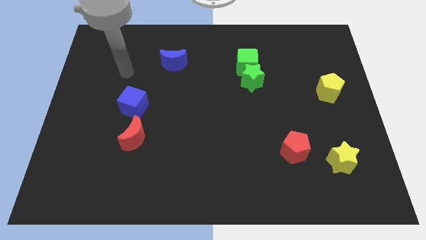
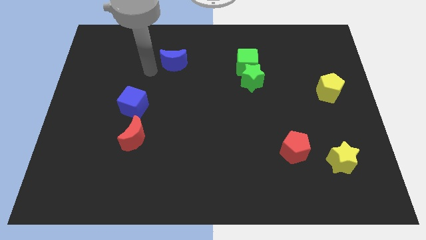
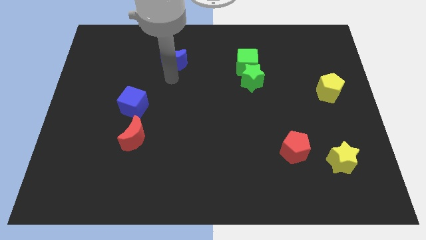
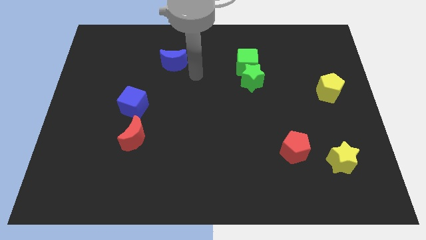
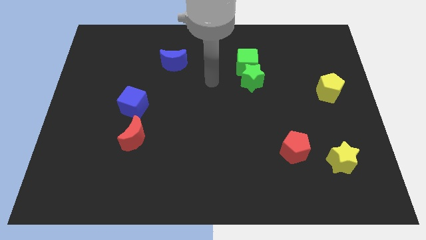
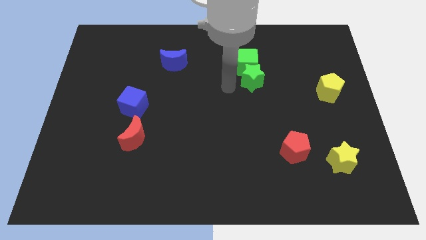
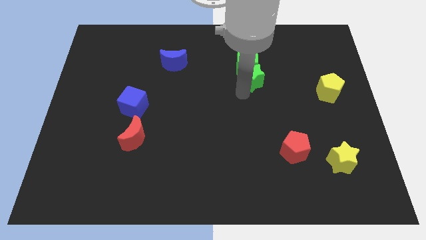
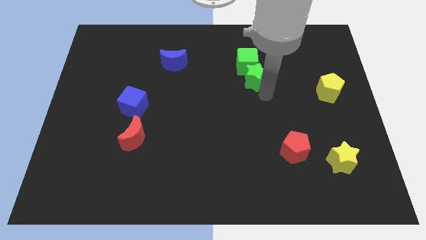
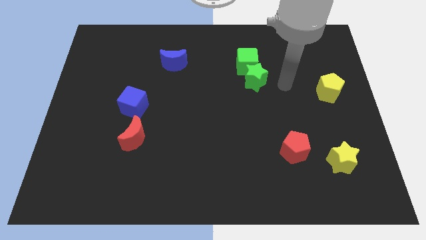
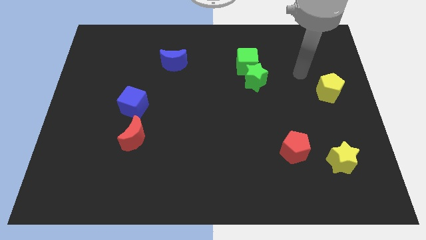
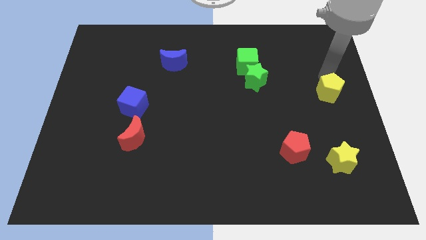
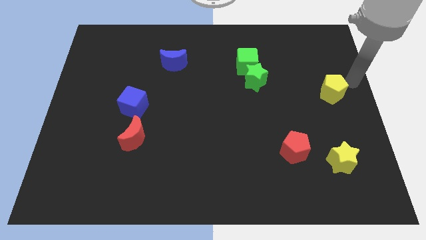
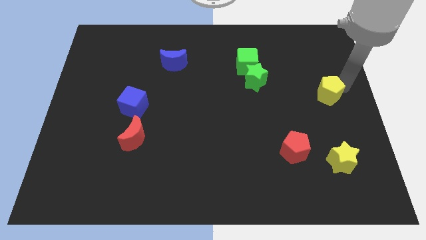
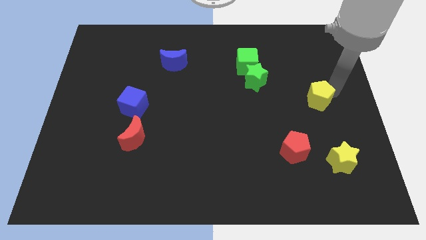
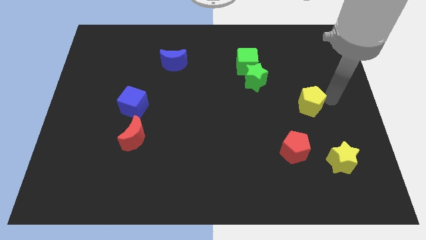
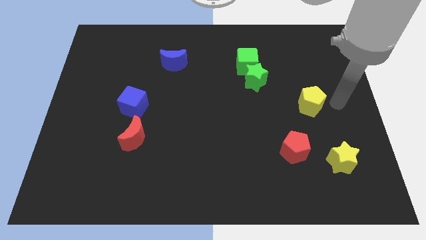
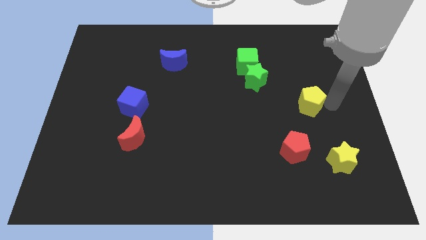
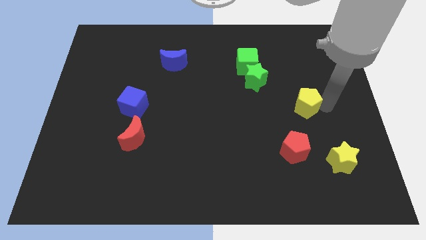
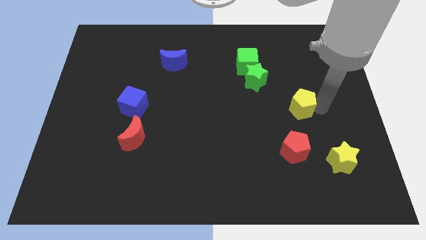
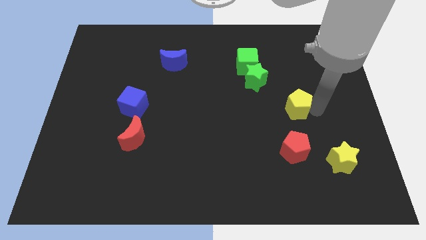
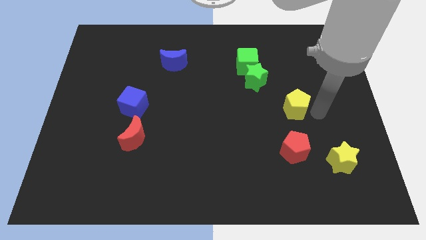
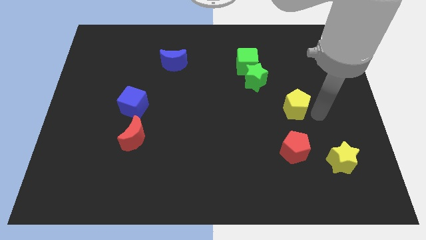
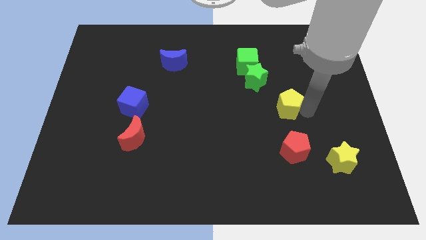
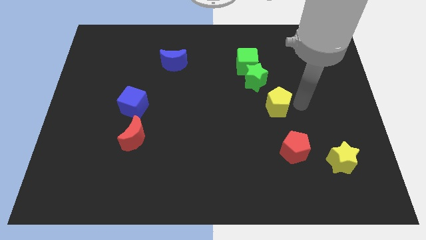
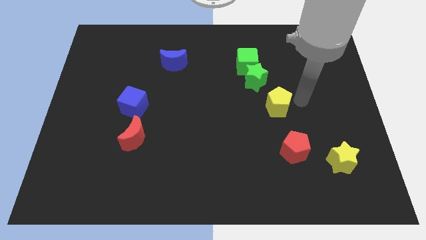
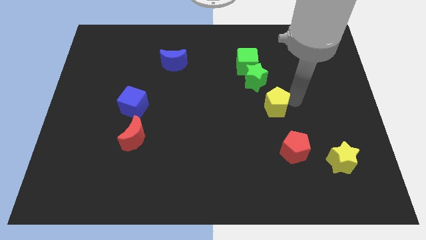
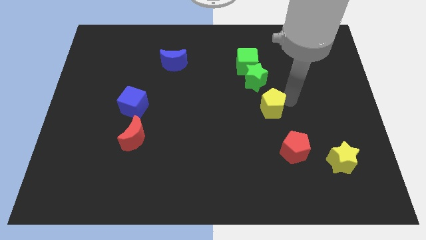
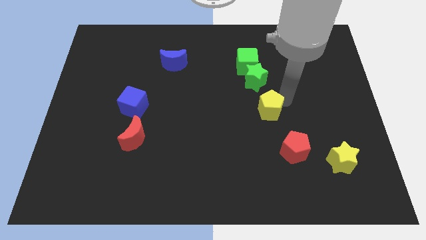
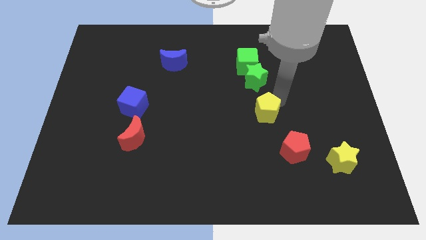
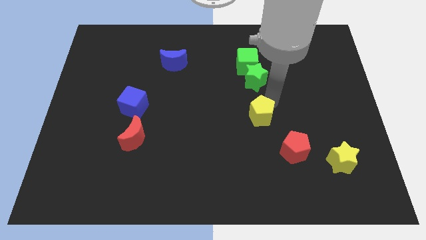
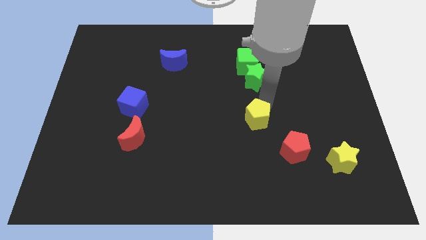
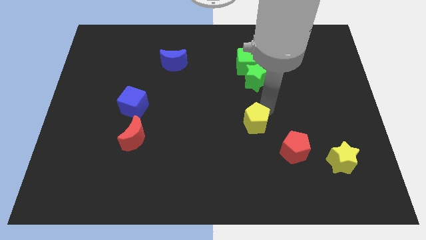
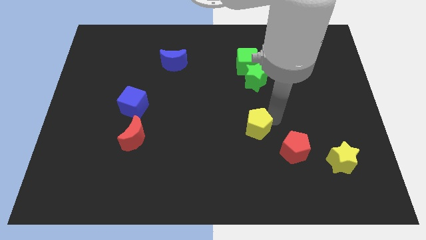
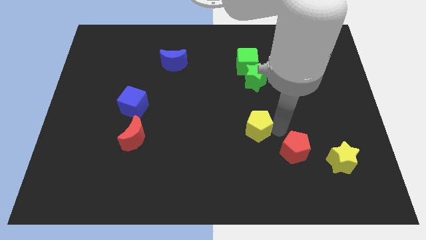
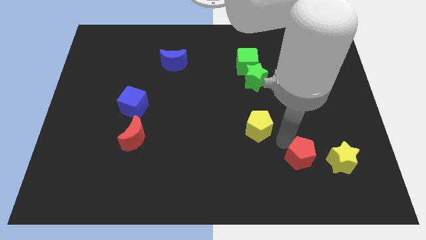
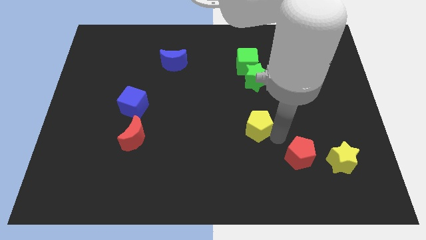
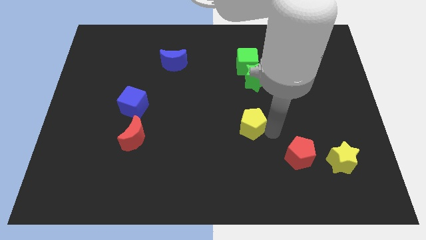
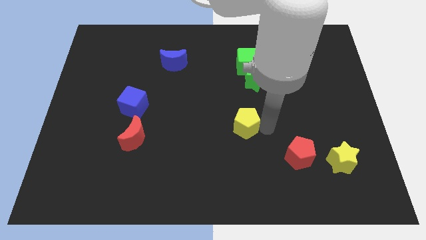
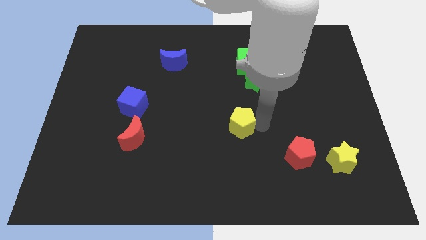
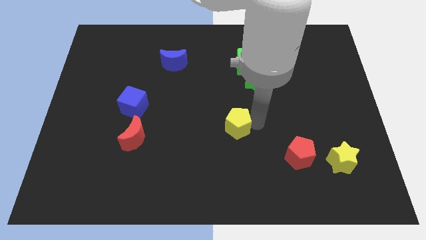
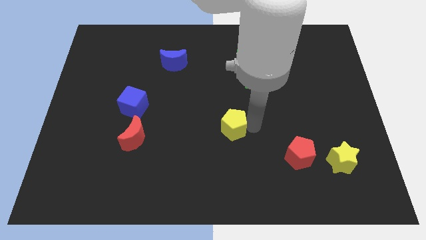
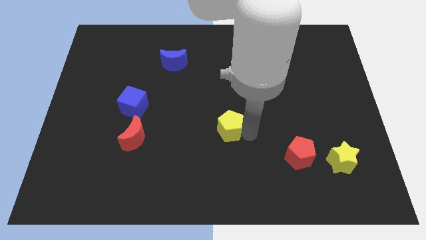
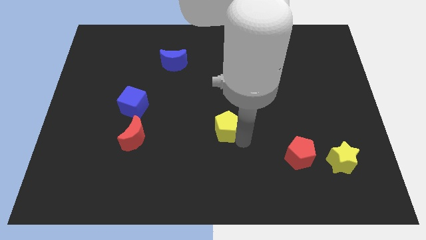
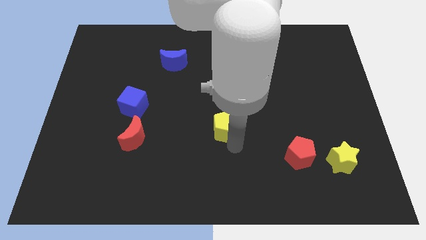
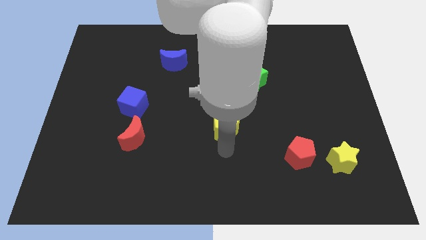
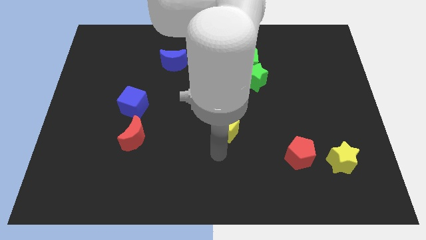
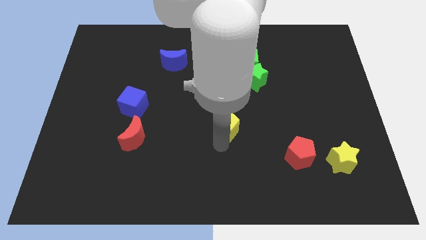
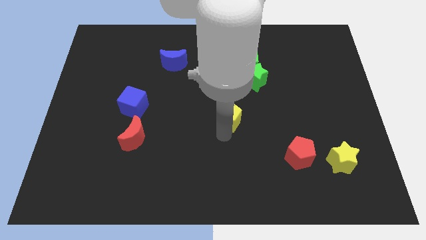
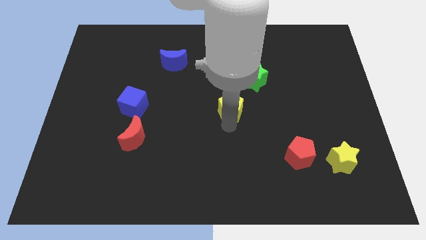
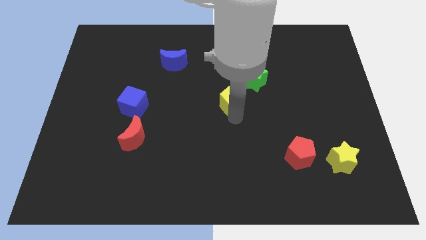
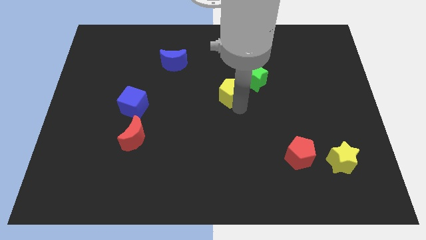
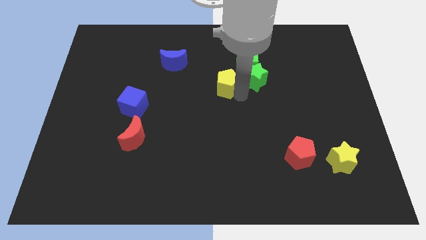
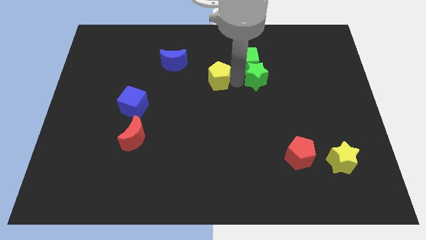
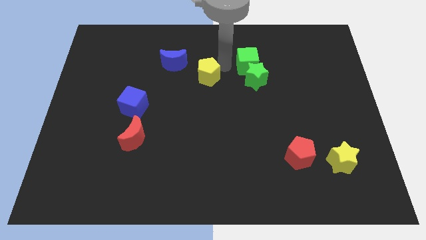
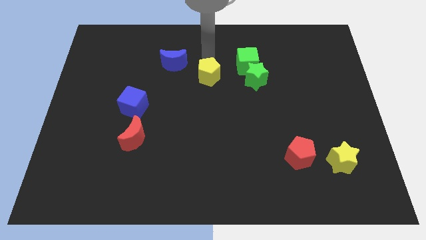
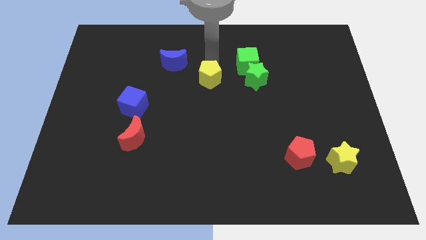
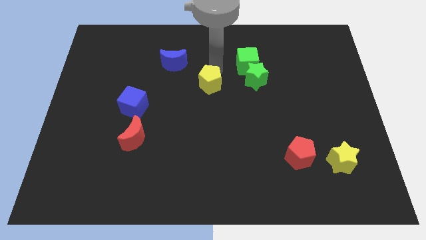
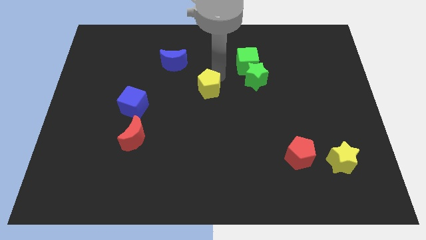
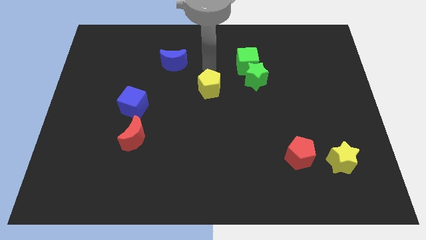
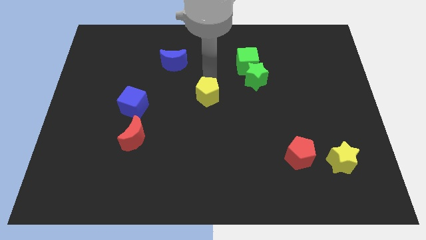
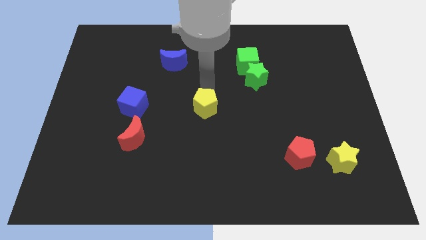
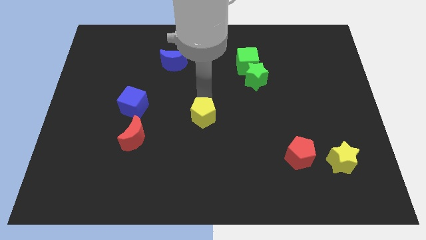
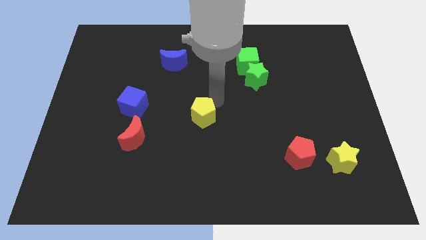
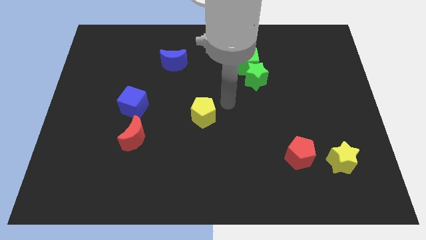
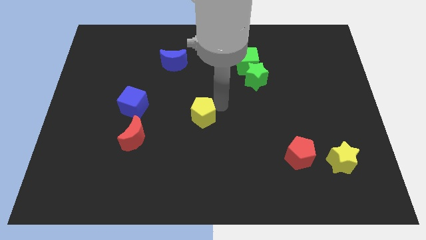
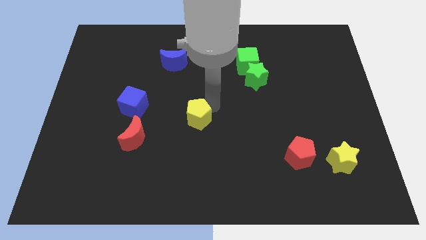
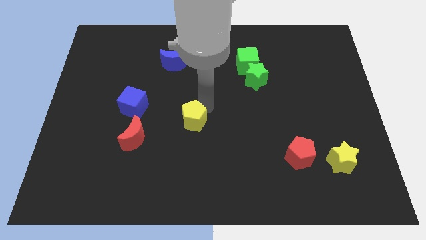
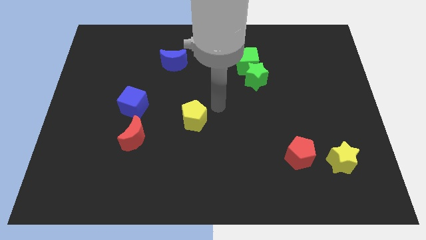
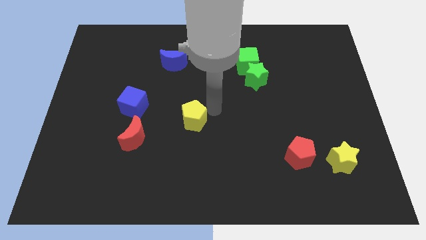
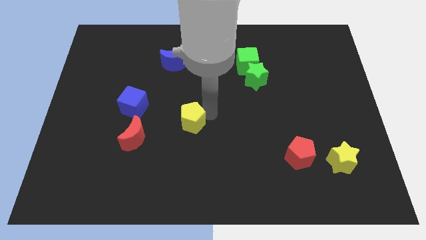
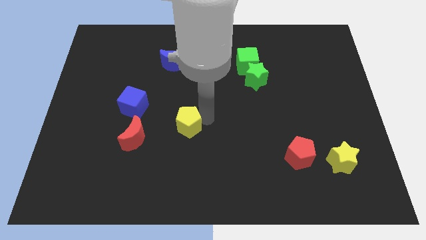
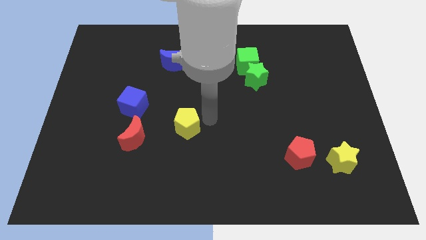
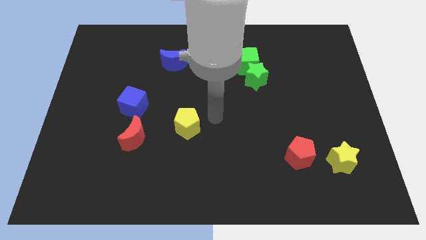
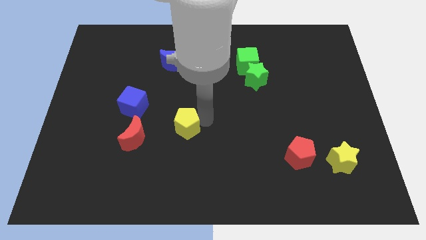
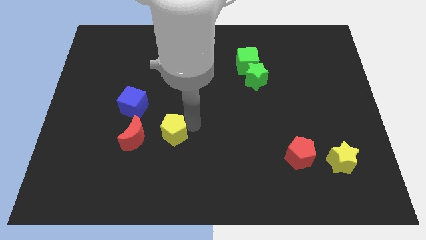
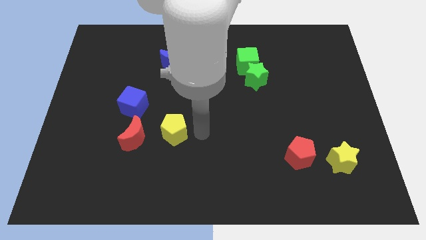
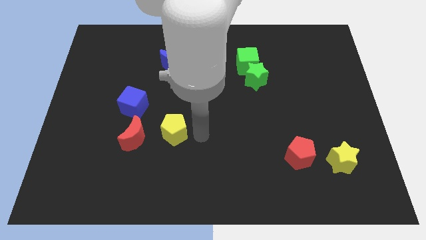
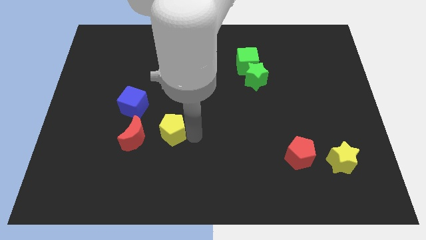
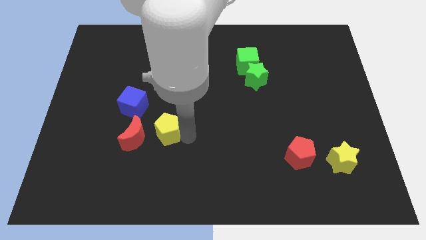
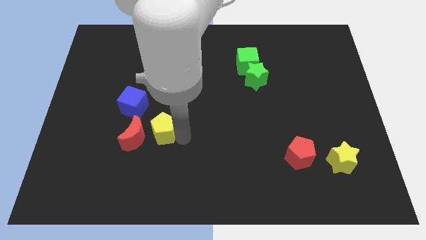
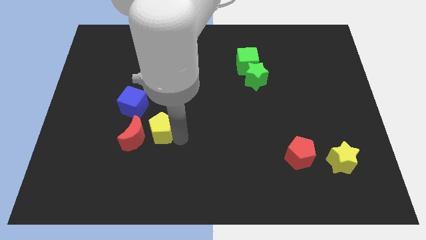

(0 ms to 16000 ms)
push the yellow pentagon to the red moon

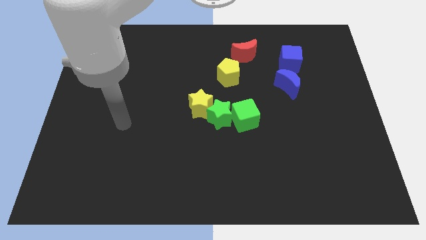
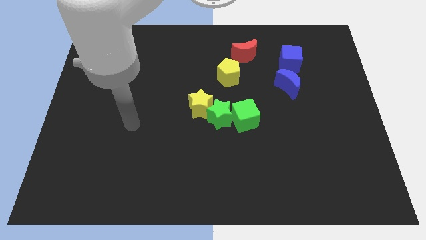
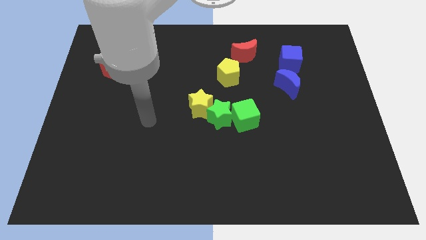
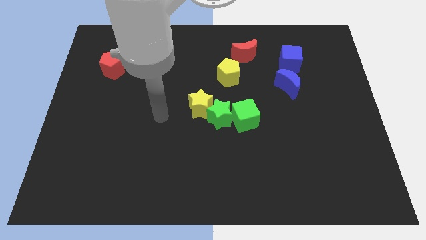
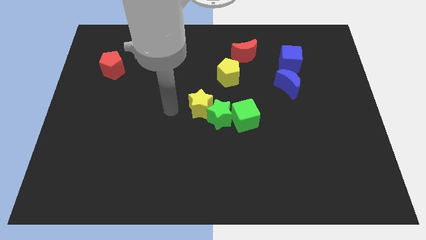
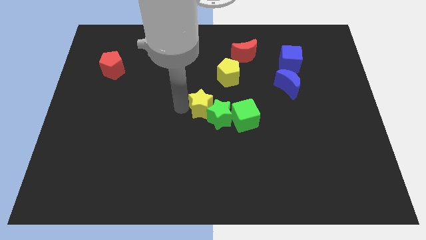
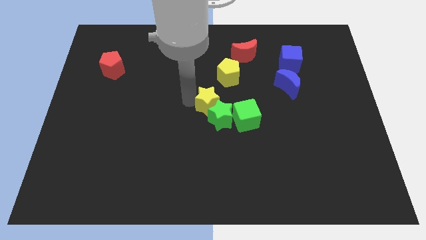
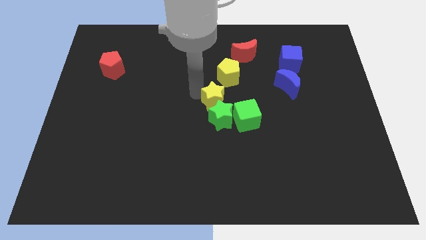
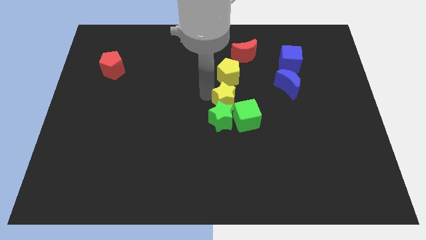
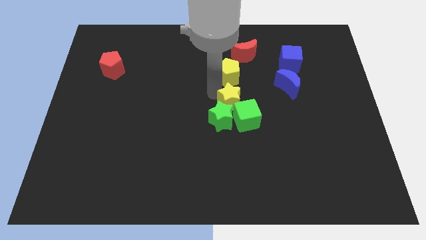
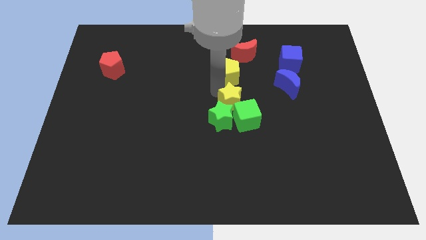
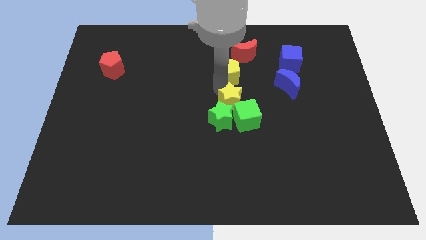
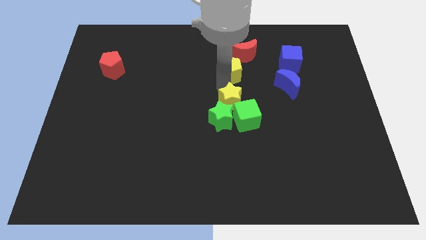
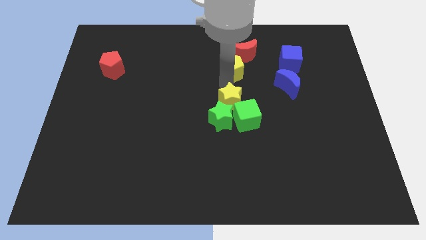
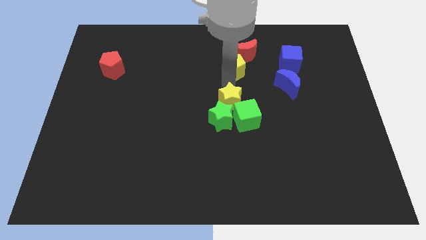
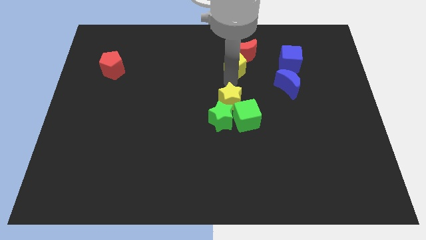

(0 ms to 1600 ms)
move the yellow pentagon to the red moon
